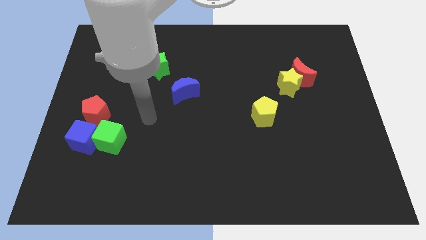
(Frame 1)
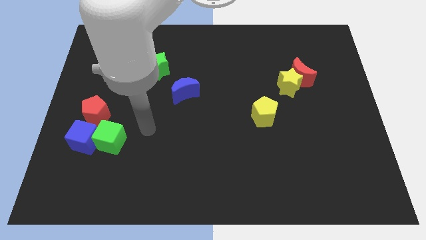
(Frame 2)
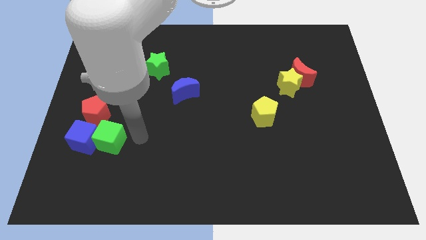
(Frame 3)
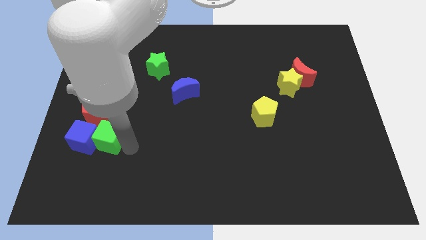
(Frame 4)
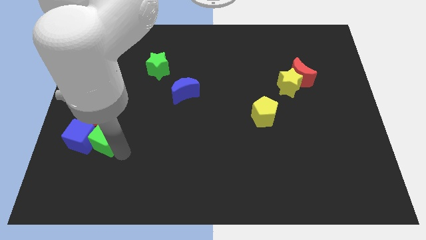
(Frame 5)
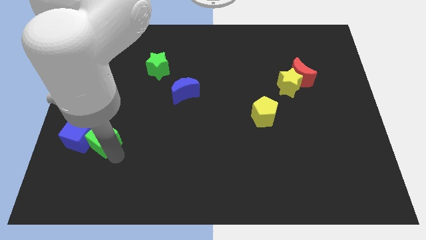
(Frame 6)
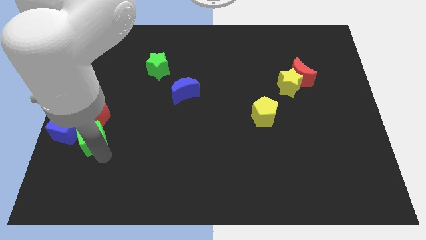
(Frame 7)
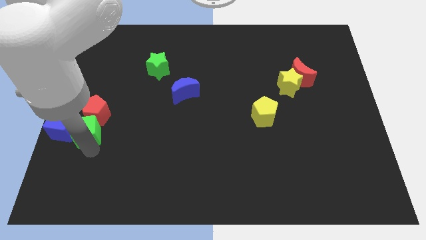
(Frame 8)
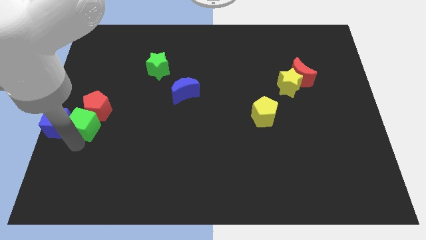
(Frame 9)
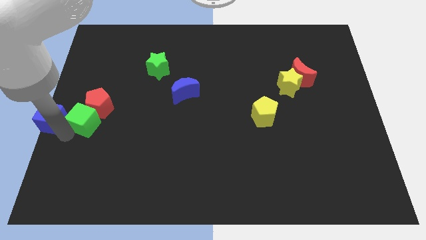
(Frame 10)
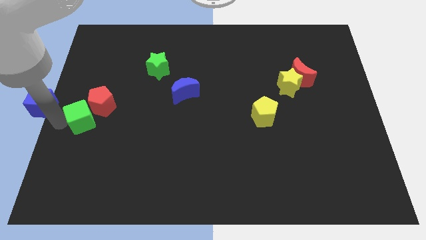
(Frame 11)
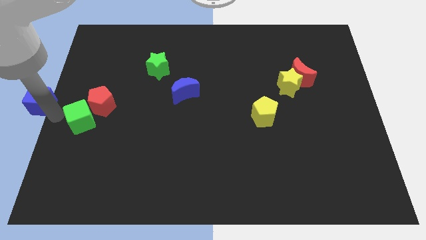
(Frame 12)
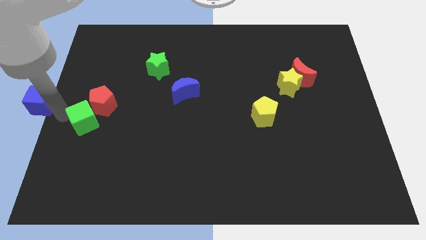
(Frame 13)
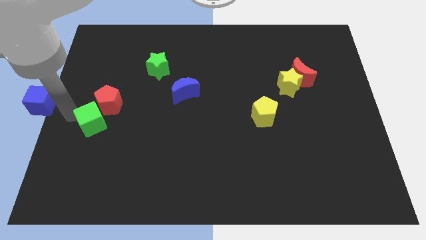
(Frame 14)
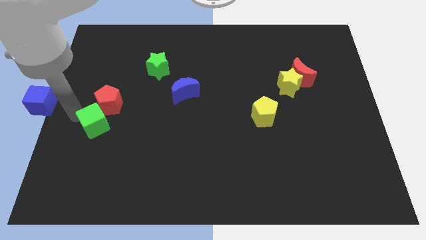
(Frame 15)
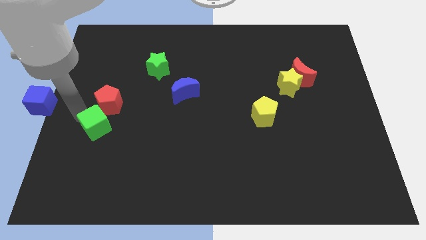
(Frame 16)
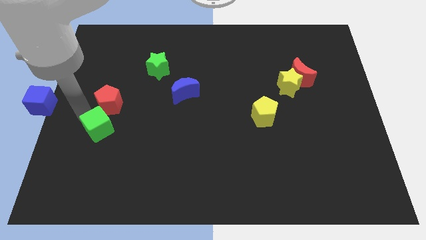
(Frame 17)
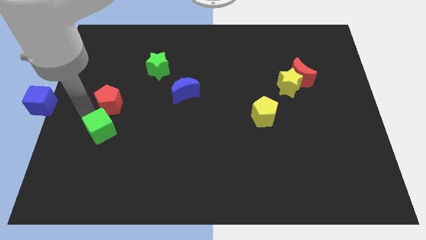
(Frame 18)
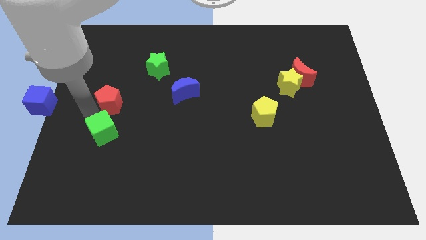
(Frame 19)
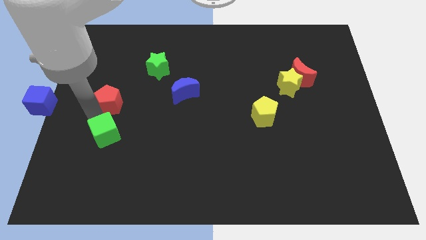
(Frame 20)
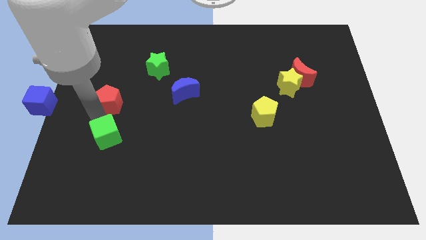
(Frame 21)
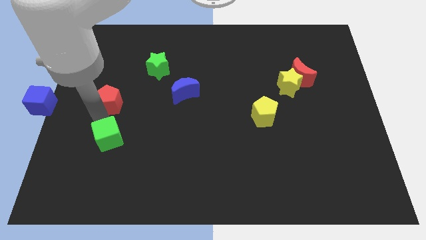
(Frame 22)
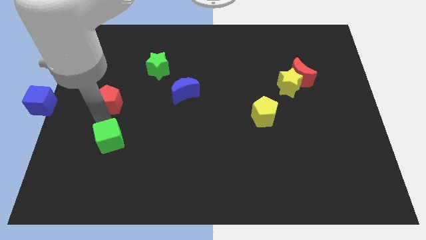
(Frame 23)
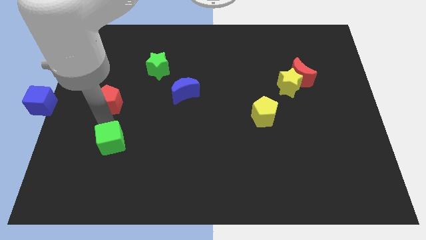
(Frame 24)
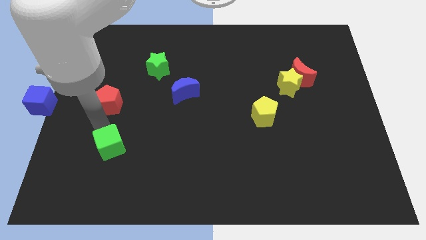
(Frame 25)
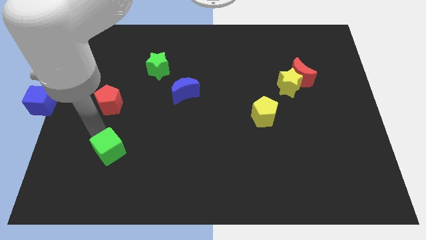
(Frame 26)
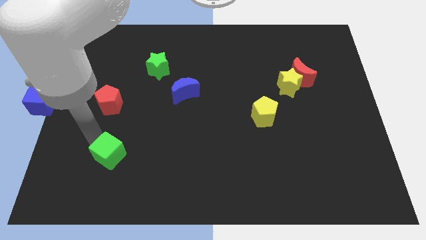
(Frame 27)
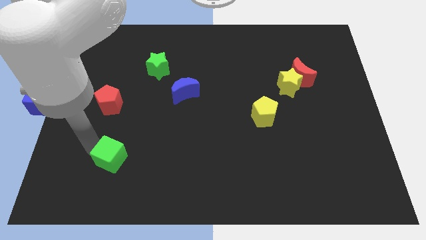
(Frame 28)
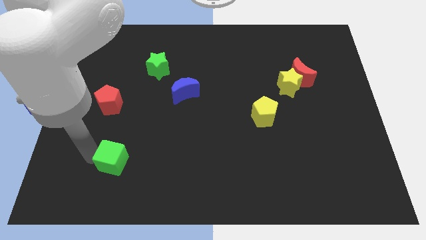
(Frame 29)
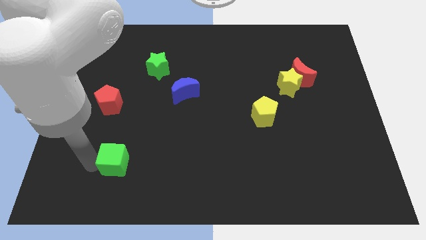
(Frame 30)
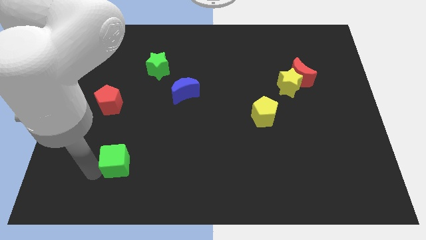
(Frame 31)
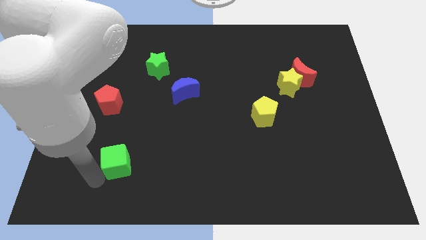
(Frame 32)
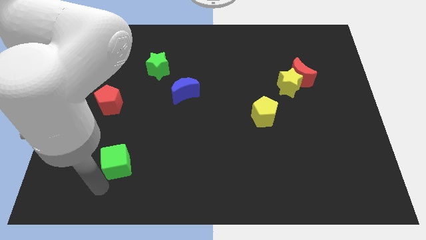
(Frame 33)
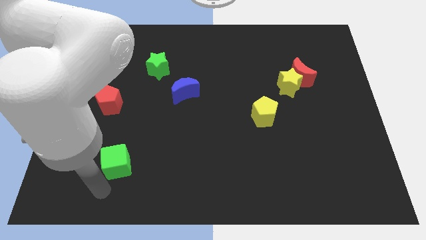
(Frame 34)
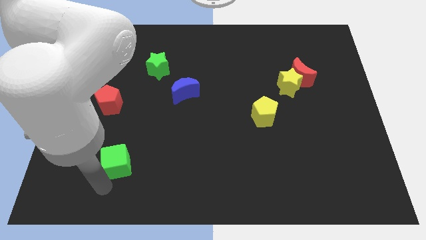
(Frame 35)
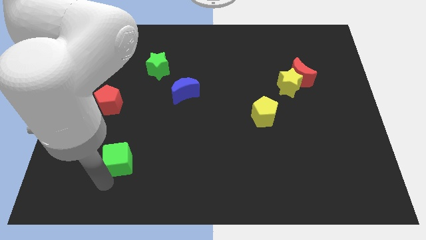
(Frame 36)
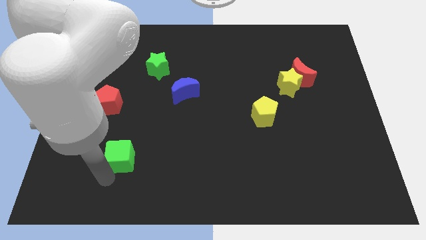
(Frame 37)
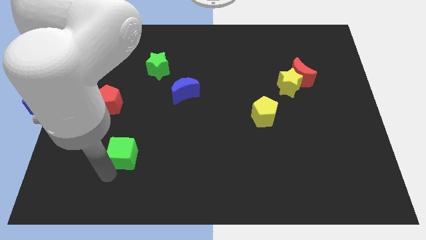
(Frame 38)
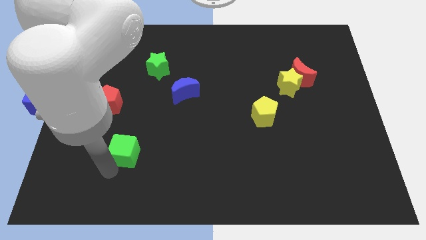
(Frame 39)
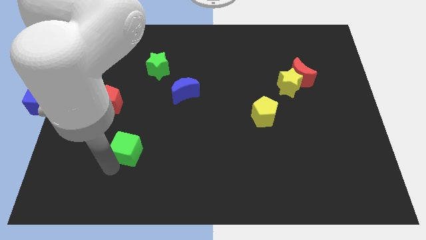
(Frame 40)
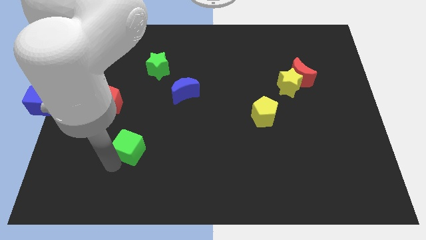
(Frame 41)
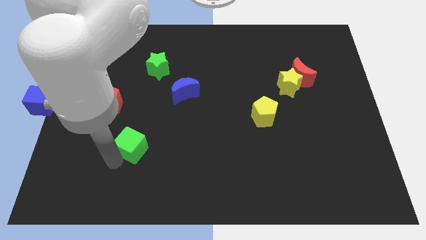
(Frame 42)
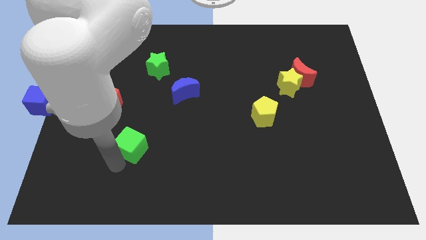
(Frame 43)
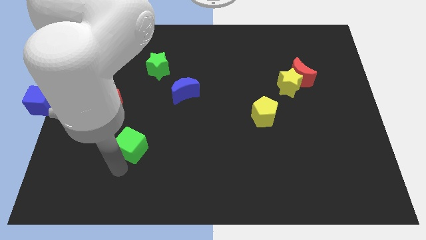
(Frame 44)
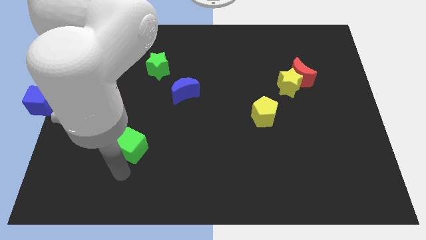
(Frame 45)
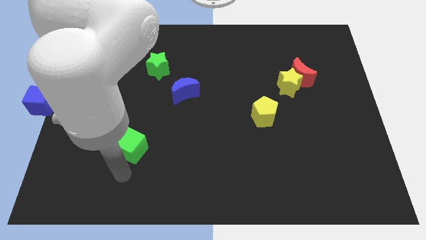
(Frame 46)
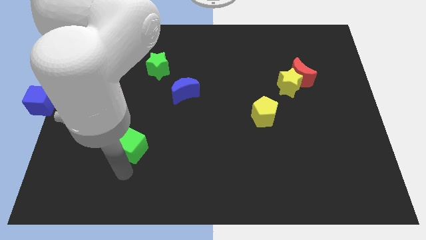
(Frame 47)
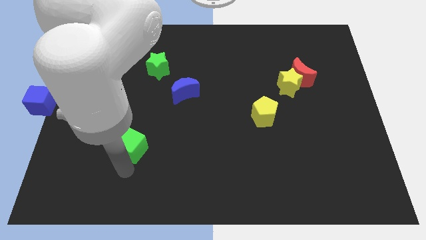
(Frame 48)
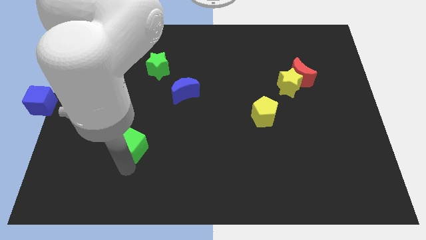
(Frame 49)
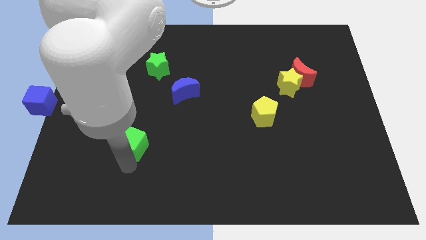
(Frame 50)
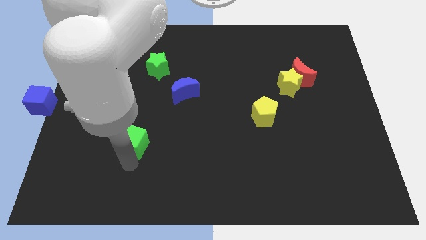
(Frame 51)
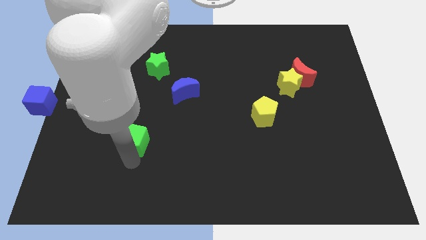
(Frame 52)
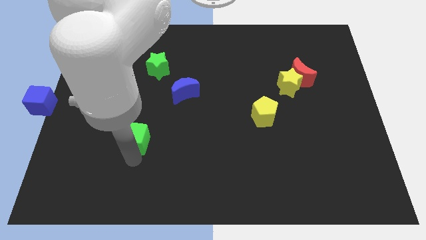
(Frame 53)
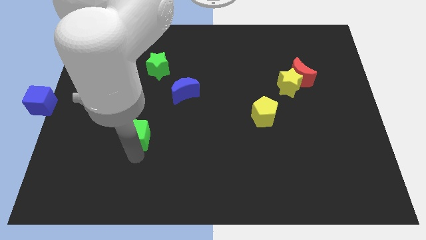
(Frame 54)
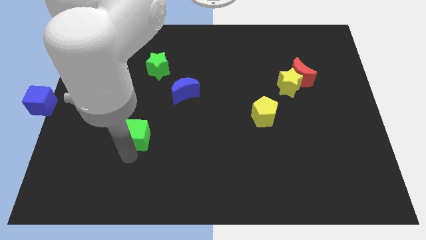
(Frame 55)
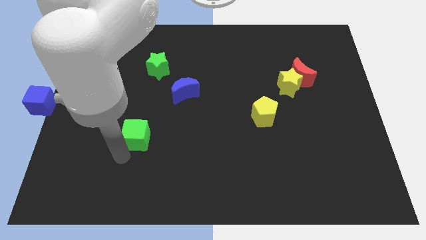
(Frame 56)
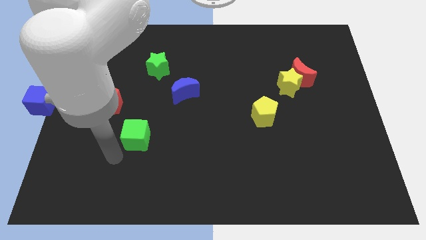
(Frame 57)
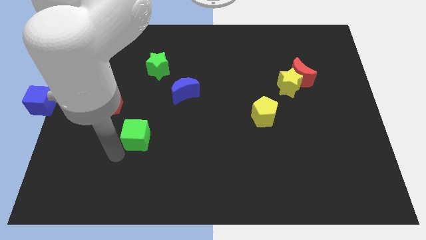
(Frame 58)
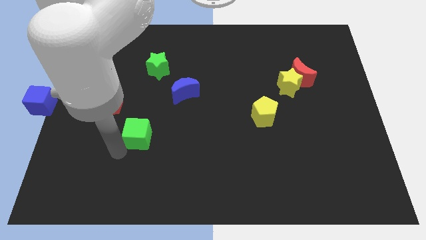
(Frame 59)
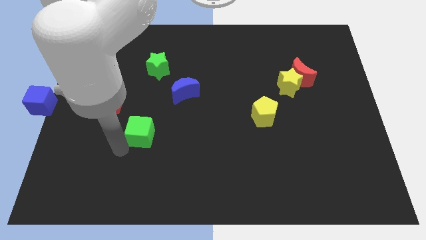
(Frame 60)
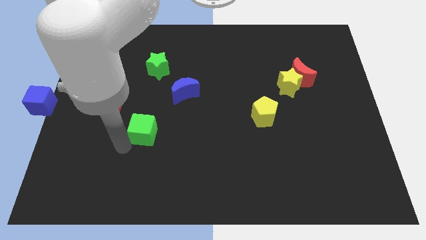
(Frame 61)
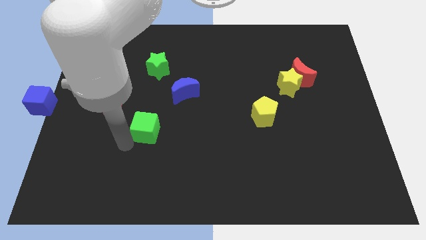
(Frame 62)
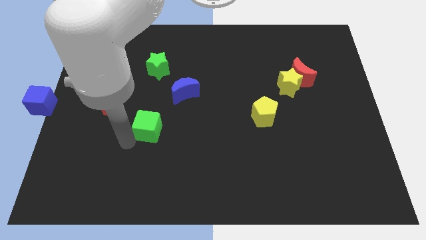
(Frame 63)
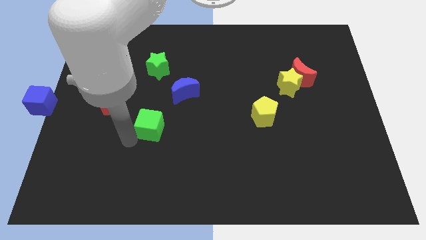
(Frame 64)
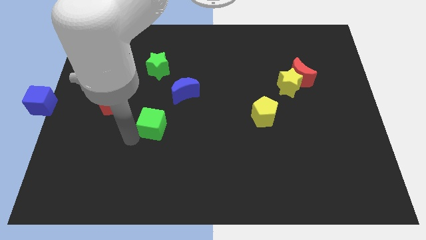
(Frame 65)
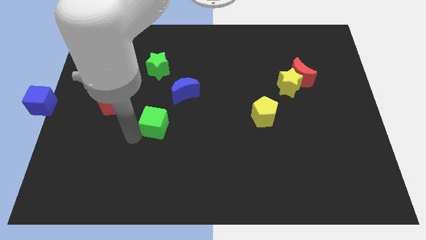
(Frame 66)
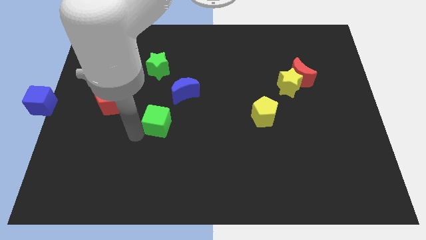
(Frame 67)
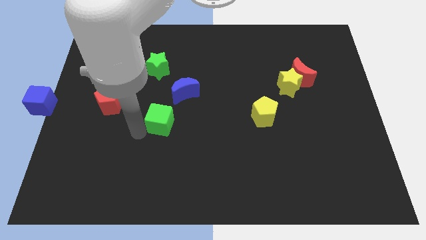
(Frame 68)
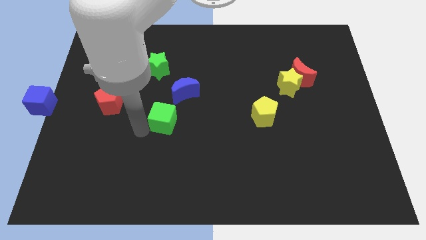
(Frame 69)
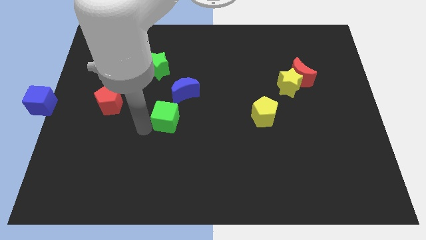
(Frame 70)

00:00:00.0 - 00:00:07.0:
push the green cube to the center

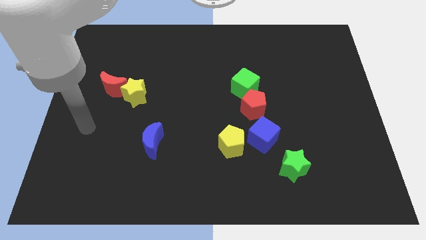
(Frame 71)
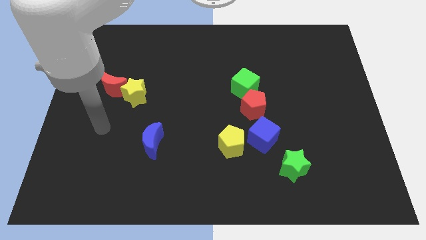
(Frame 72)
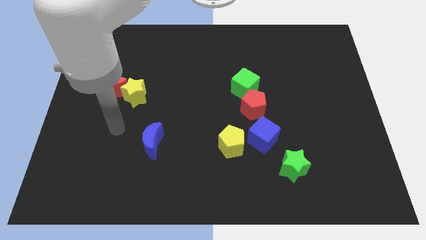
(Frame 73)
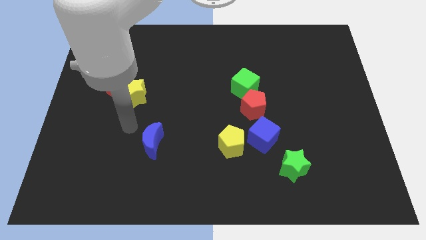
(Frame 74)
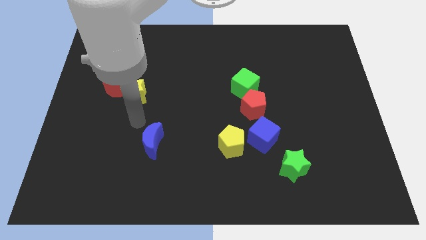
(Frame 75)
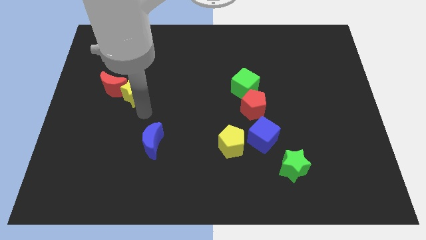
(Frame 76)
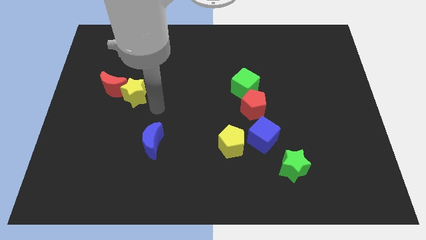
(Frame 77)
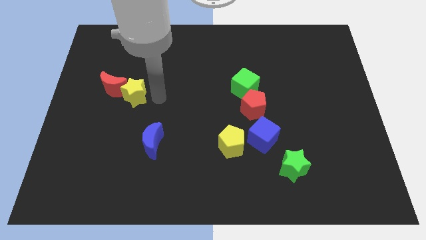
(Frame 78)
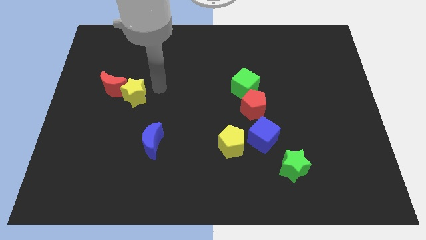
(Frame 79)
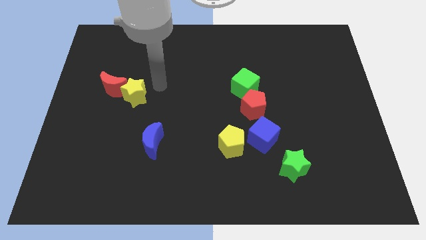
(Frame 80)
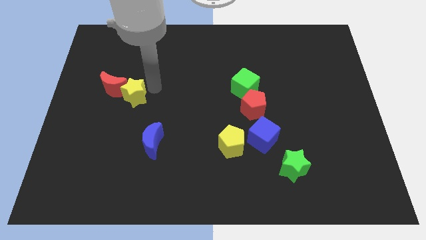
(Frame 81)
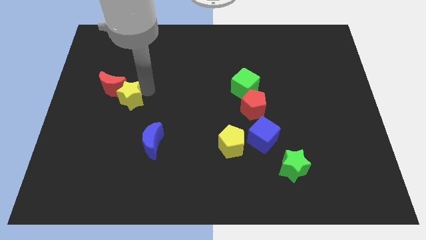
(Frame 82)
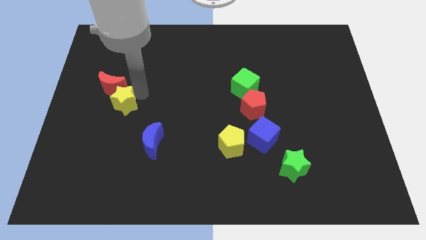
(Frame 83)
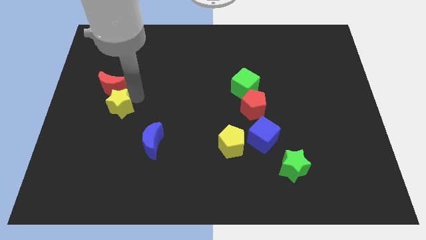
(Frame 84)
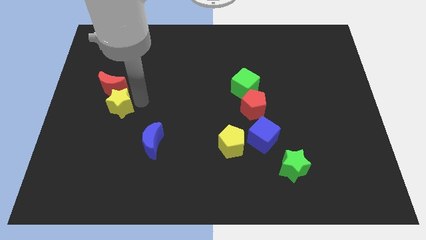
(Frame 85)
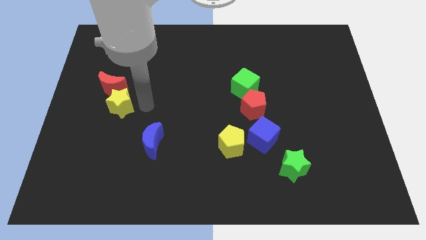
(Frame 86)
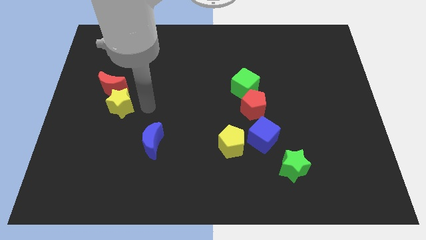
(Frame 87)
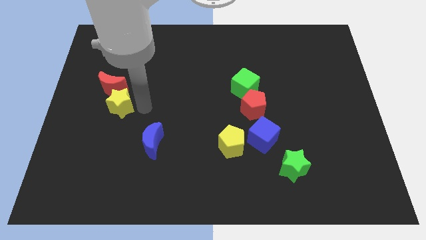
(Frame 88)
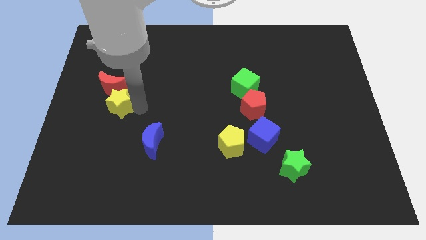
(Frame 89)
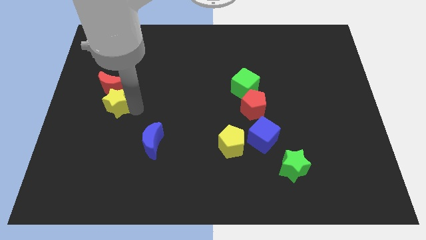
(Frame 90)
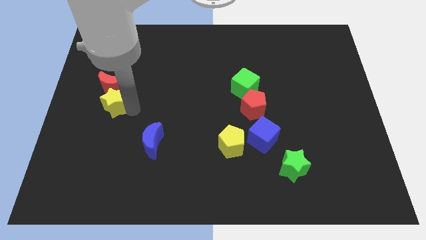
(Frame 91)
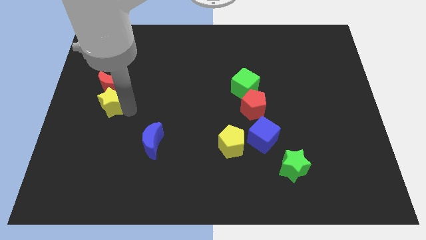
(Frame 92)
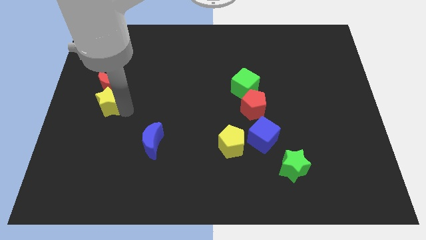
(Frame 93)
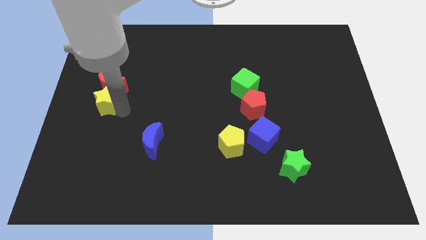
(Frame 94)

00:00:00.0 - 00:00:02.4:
slide the yellow star to the center left
